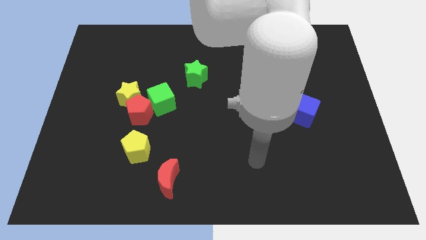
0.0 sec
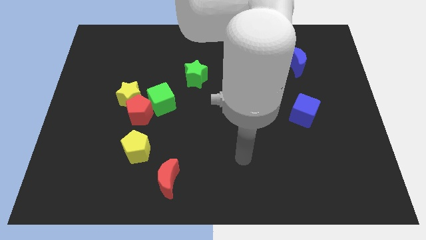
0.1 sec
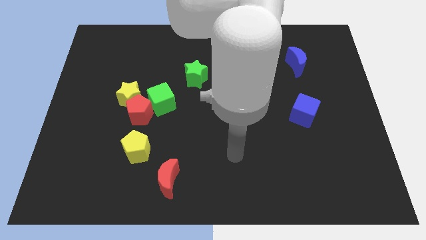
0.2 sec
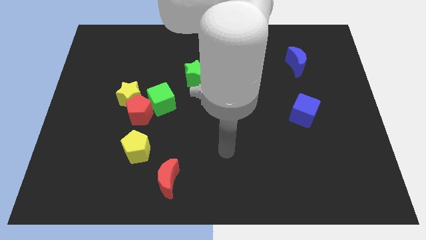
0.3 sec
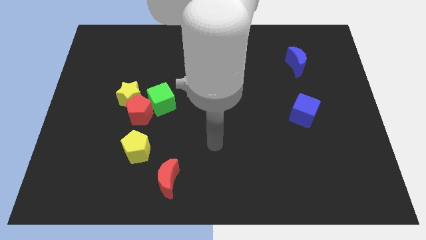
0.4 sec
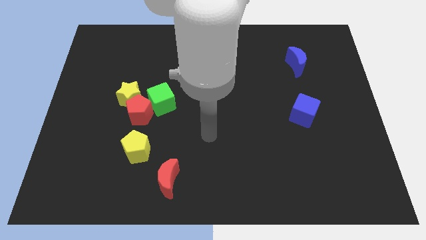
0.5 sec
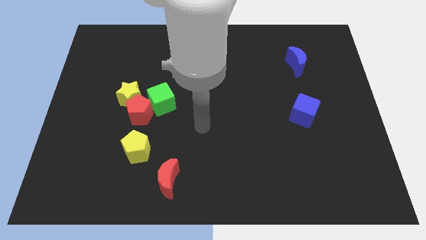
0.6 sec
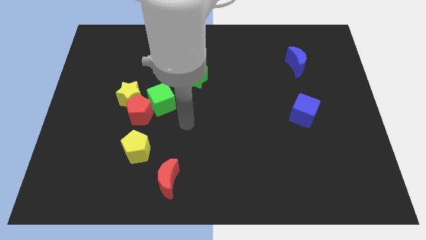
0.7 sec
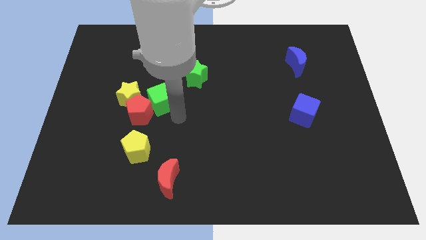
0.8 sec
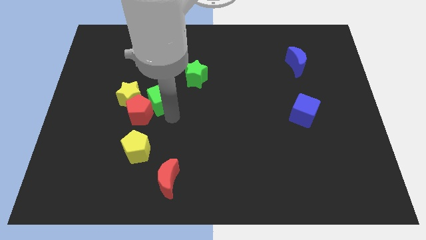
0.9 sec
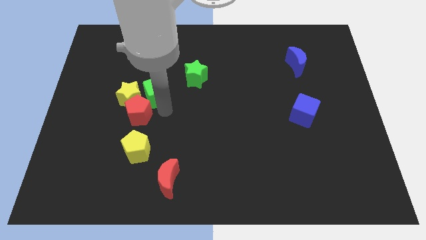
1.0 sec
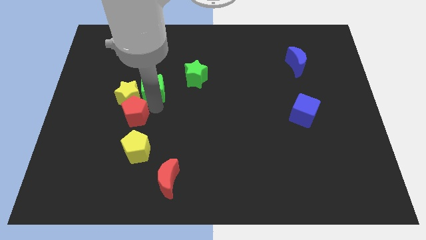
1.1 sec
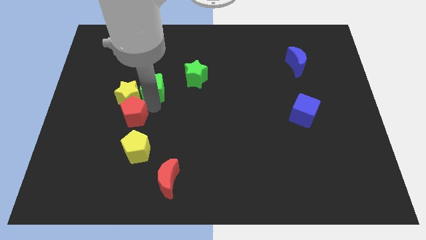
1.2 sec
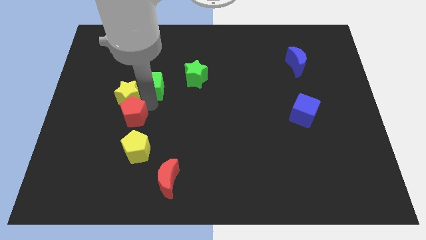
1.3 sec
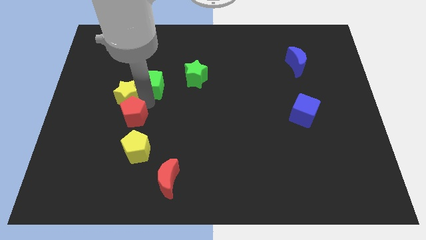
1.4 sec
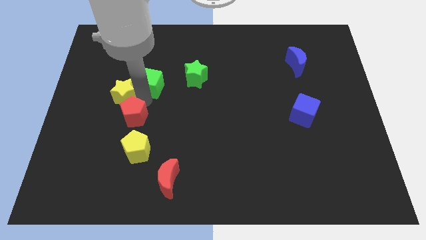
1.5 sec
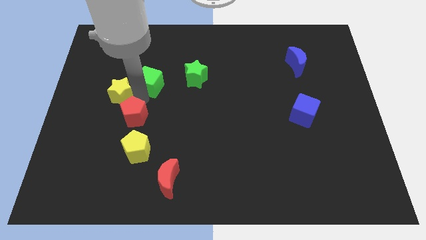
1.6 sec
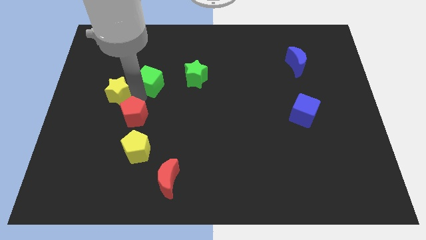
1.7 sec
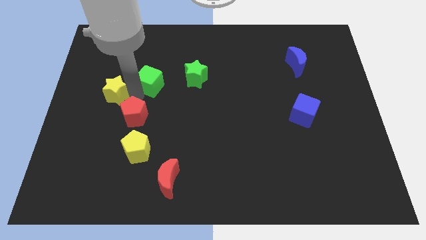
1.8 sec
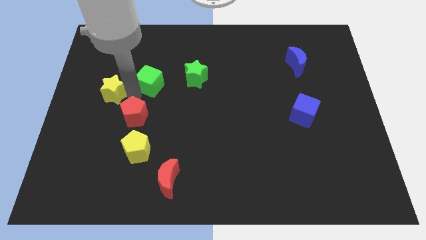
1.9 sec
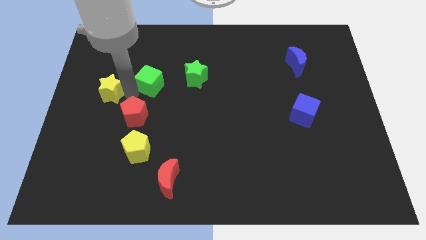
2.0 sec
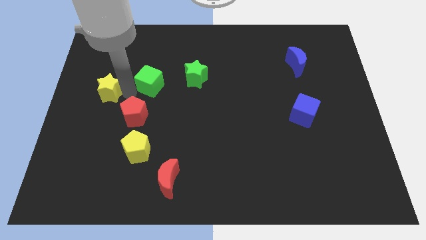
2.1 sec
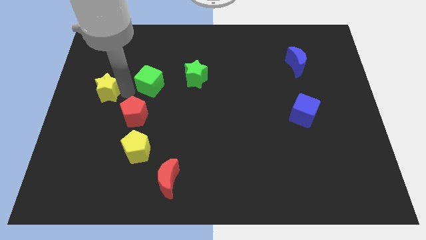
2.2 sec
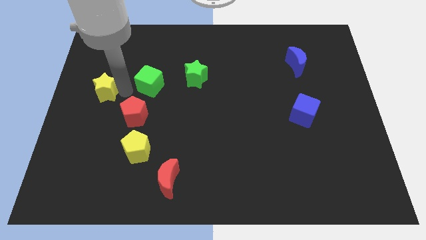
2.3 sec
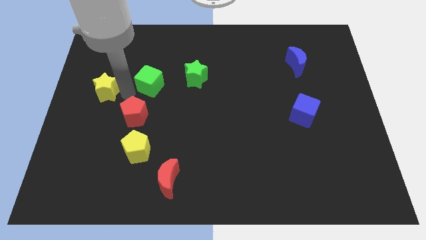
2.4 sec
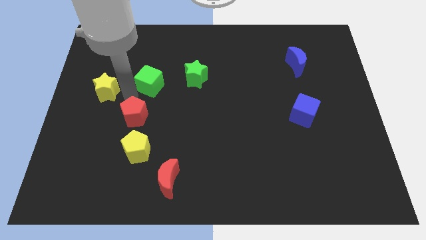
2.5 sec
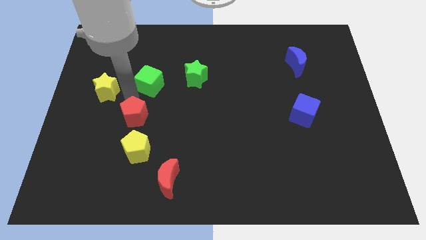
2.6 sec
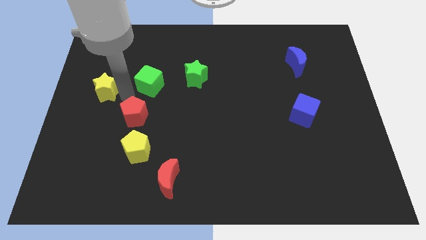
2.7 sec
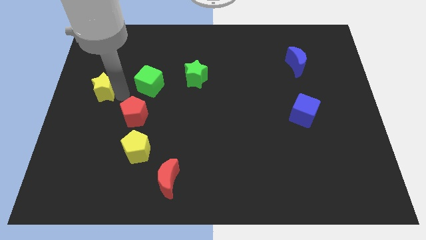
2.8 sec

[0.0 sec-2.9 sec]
move the yellow star away from the red pentagon and green cube

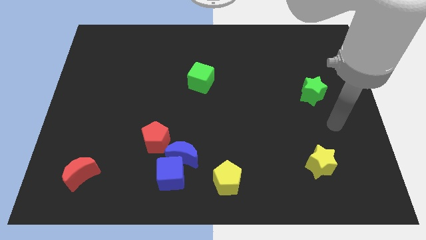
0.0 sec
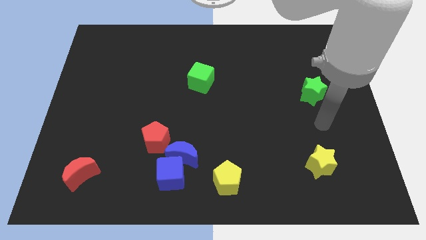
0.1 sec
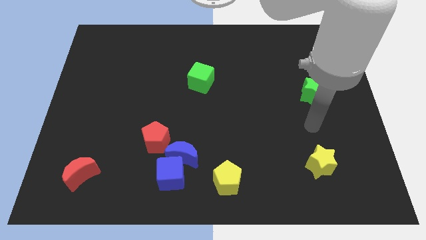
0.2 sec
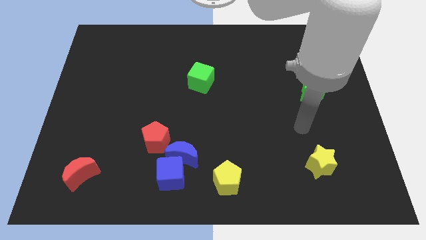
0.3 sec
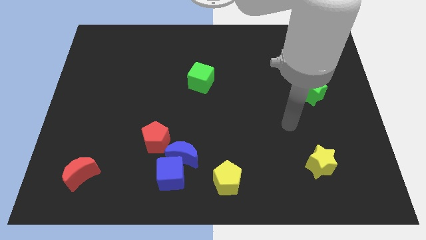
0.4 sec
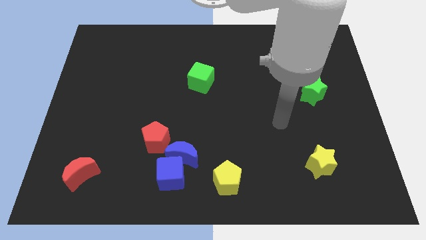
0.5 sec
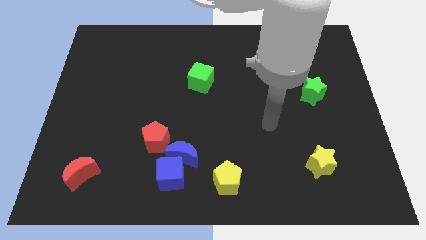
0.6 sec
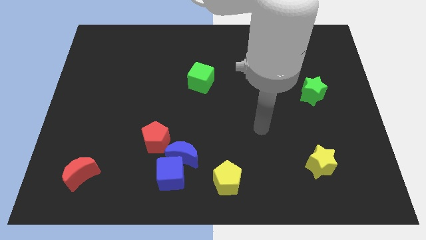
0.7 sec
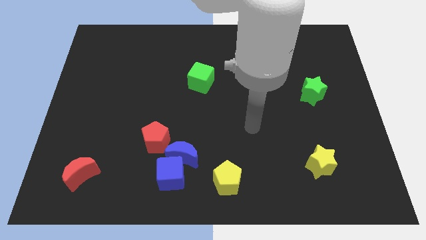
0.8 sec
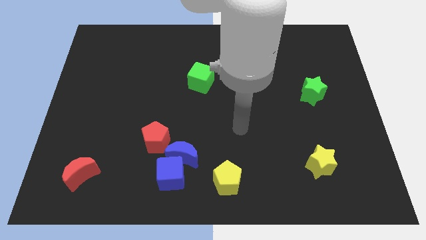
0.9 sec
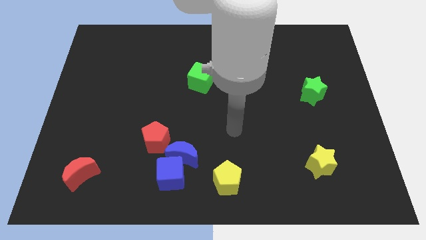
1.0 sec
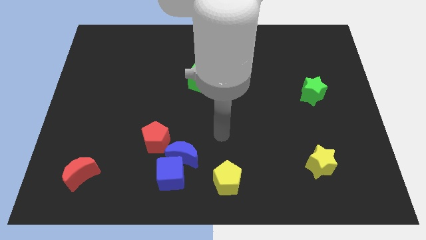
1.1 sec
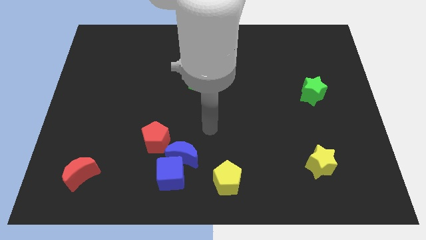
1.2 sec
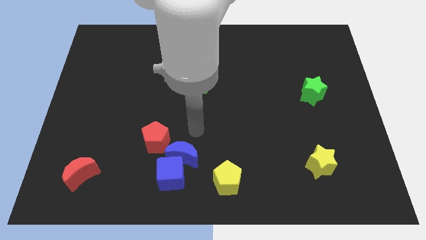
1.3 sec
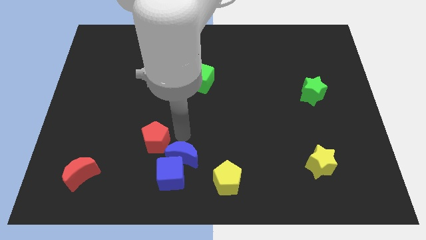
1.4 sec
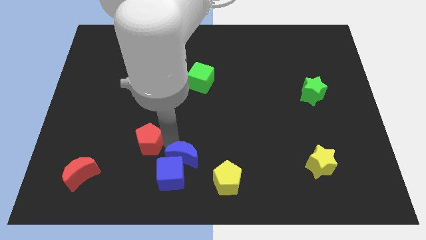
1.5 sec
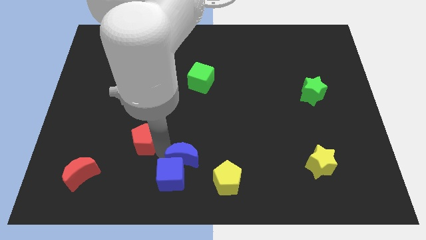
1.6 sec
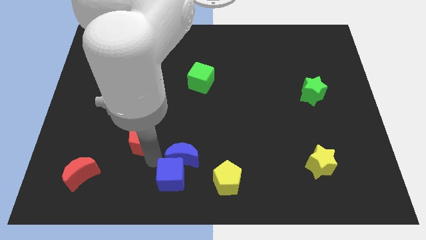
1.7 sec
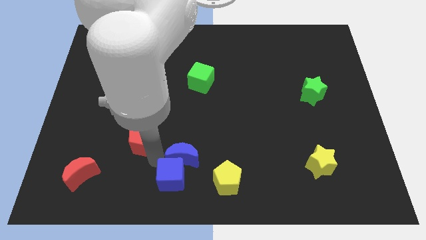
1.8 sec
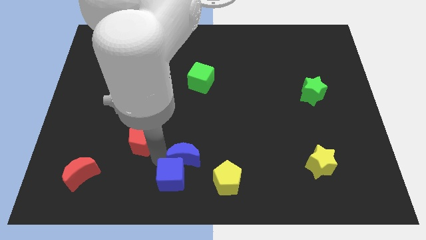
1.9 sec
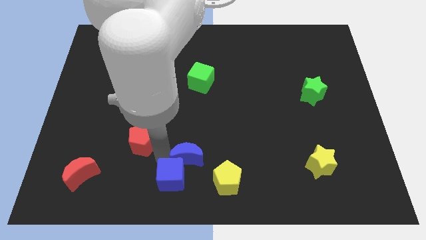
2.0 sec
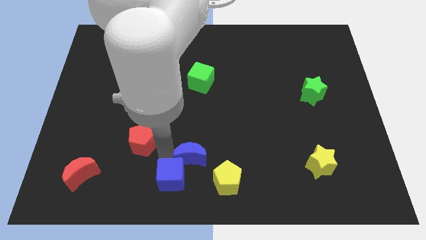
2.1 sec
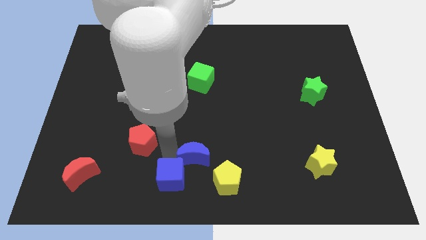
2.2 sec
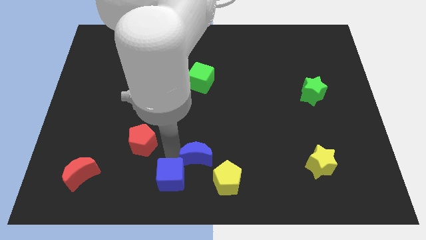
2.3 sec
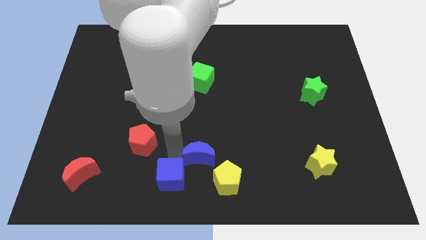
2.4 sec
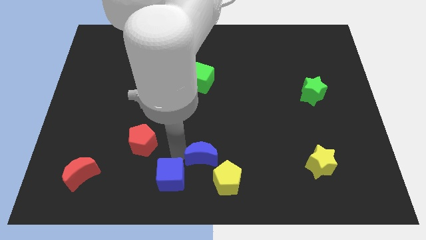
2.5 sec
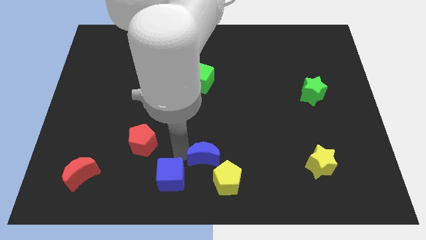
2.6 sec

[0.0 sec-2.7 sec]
pull the blue moon apart from the blue cube and red pentagon

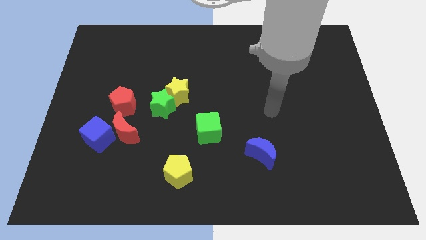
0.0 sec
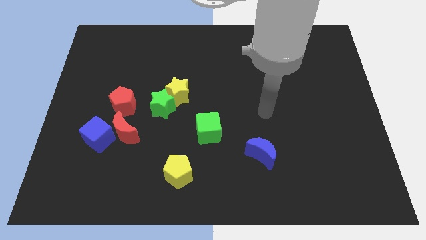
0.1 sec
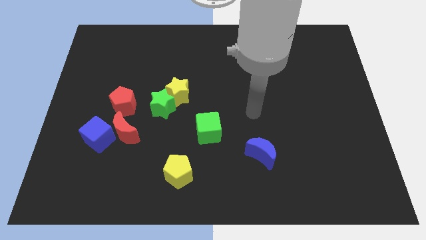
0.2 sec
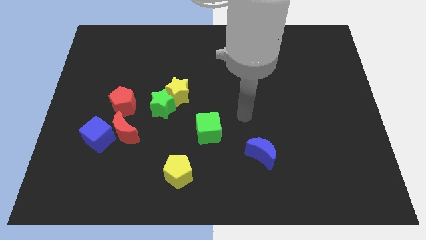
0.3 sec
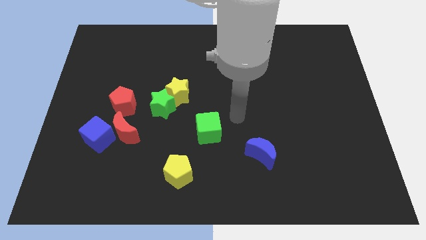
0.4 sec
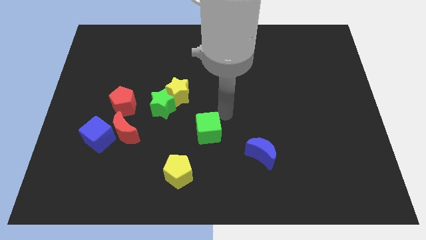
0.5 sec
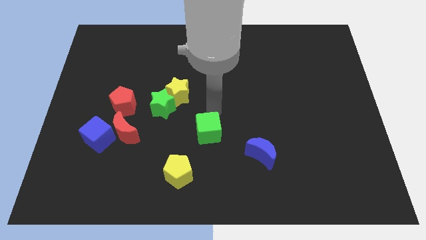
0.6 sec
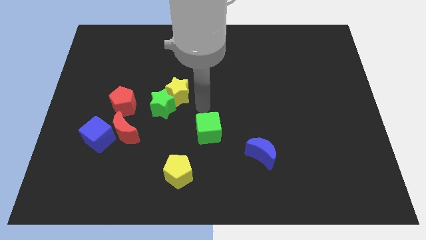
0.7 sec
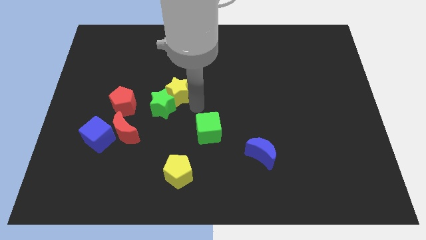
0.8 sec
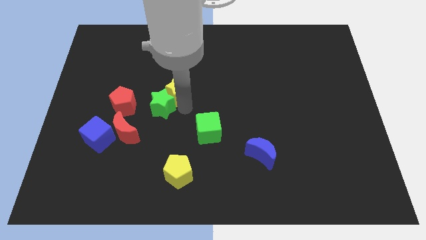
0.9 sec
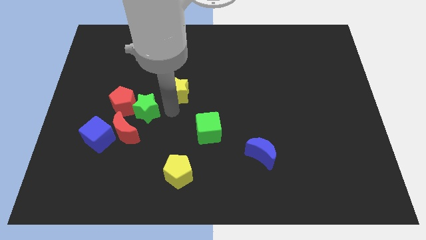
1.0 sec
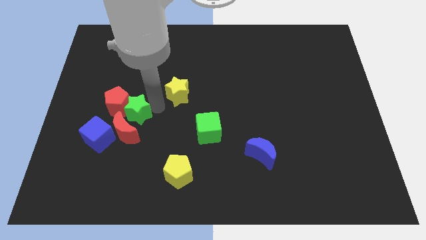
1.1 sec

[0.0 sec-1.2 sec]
pull the yellow star apart from the green star

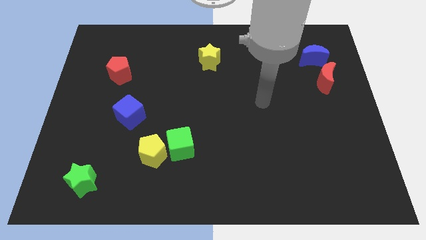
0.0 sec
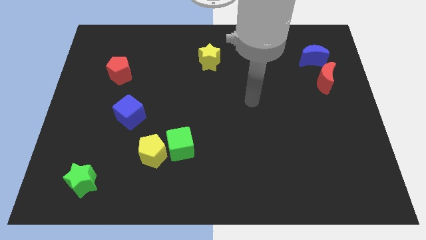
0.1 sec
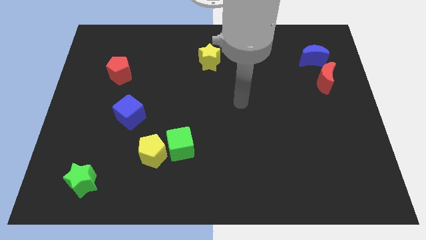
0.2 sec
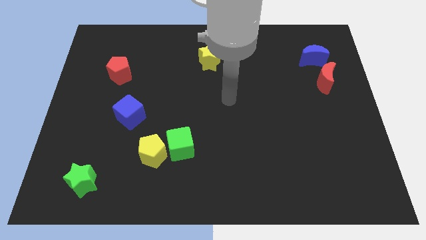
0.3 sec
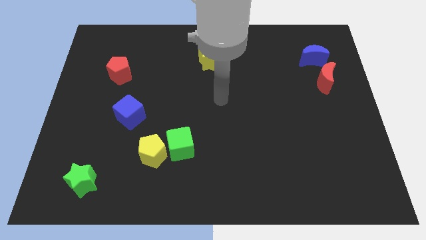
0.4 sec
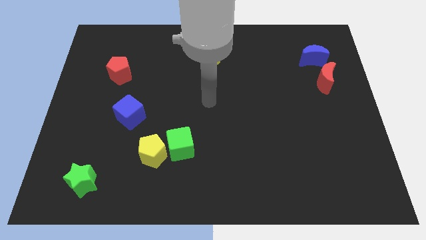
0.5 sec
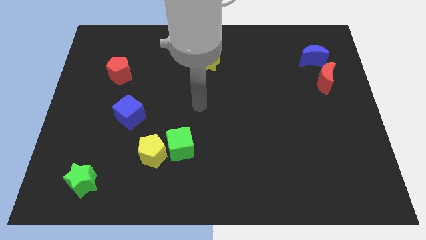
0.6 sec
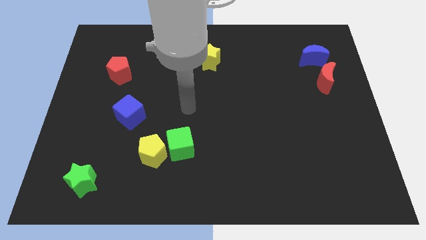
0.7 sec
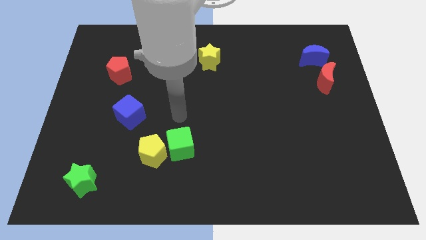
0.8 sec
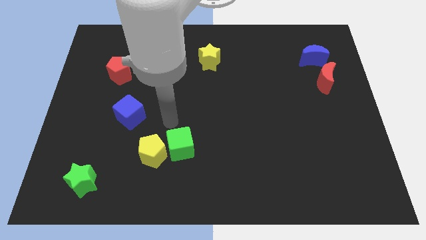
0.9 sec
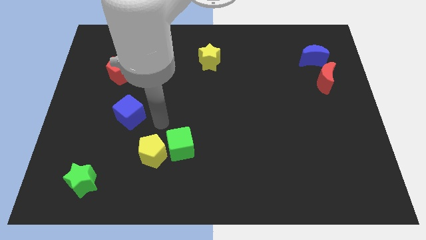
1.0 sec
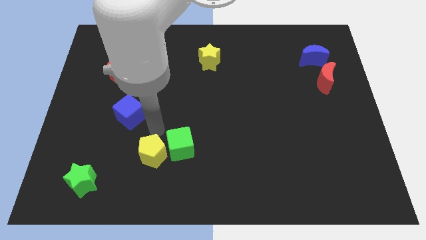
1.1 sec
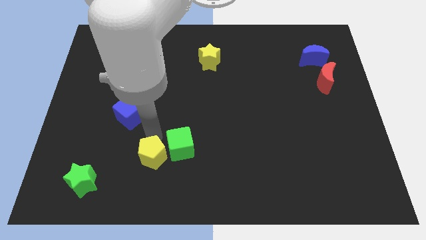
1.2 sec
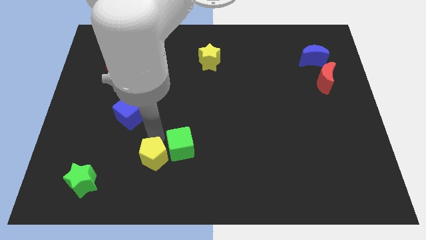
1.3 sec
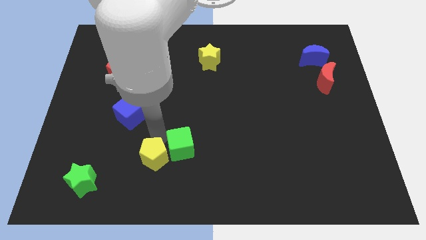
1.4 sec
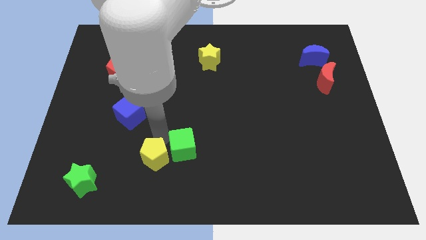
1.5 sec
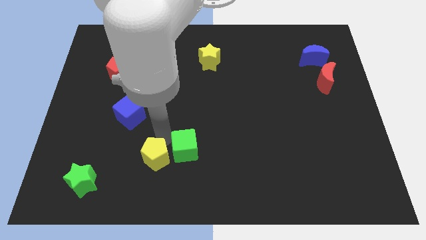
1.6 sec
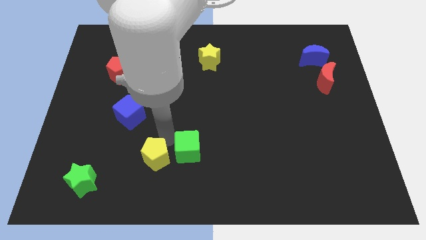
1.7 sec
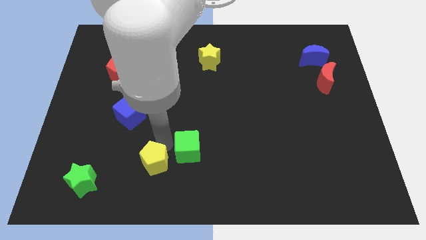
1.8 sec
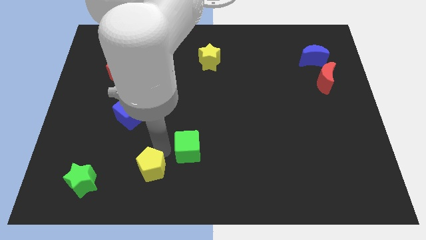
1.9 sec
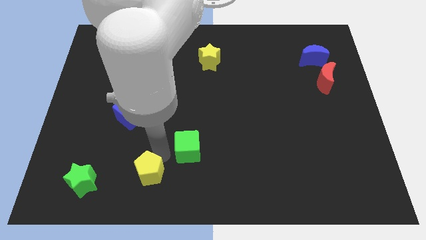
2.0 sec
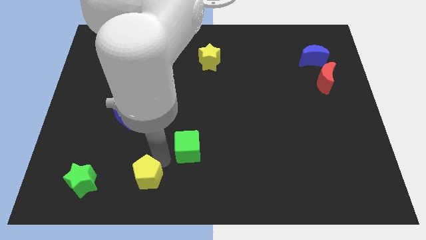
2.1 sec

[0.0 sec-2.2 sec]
move the green cube away from the yellow pentagon

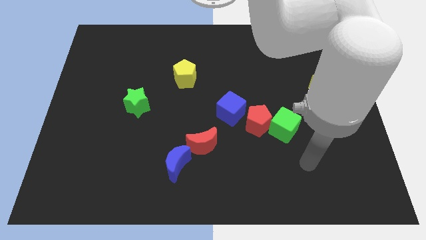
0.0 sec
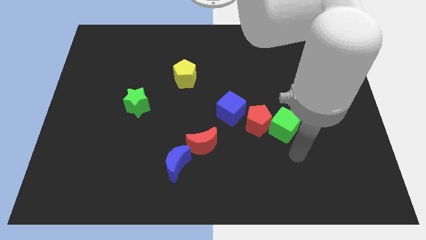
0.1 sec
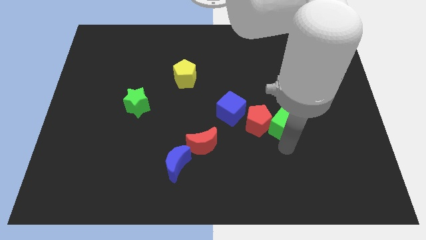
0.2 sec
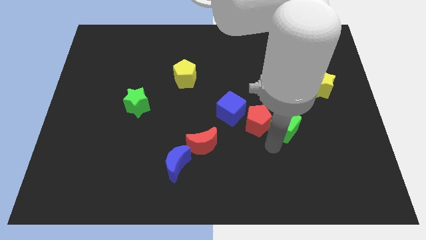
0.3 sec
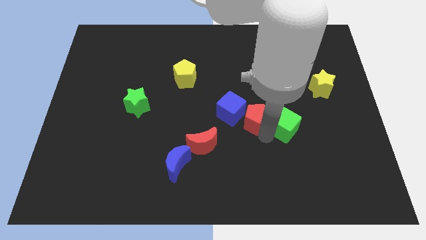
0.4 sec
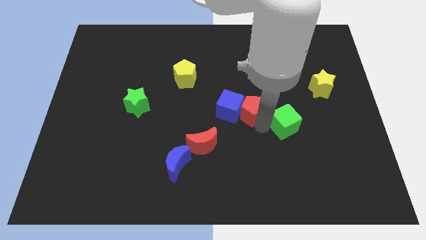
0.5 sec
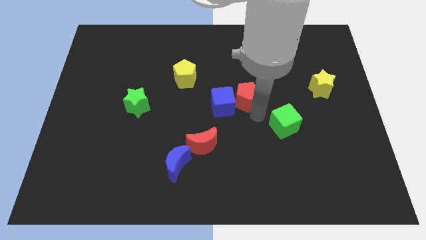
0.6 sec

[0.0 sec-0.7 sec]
pull the green cube apart from the red pentagon
